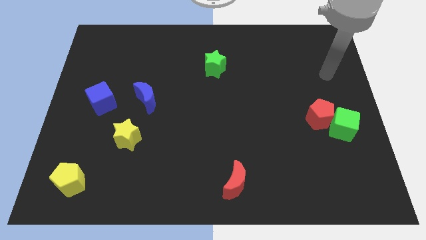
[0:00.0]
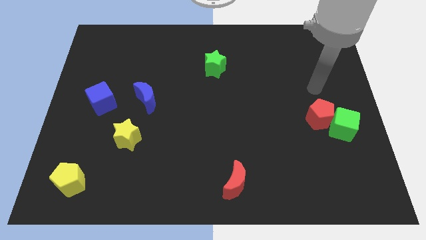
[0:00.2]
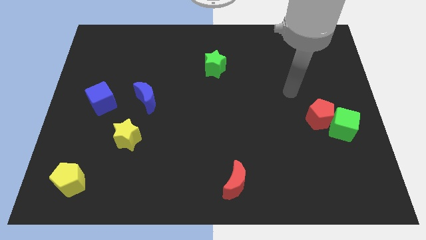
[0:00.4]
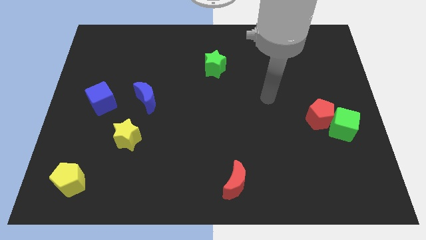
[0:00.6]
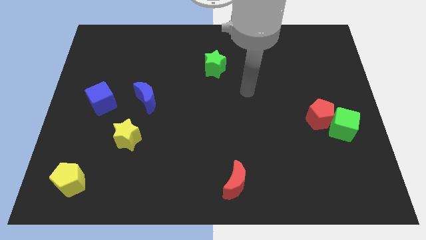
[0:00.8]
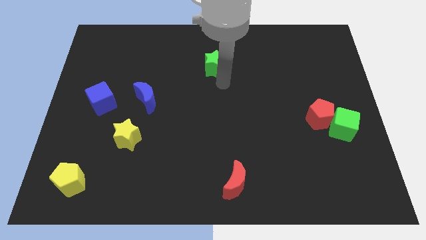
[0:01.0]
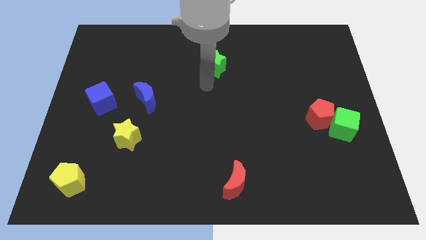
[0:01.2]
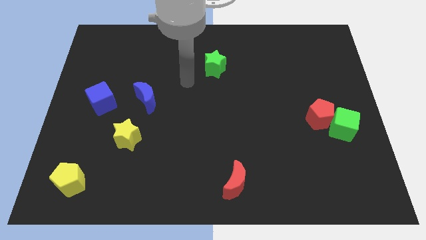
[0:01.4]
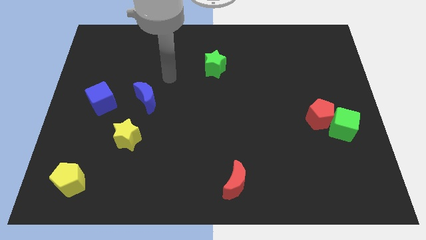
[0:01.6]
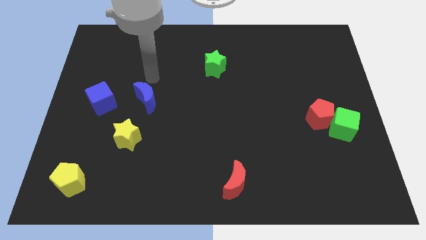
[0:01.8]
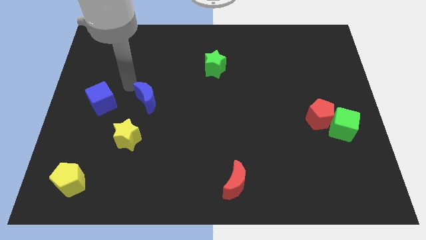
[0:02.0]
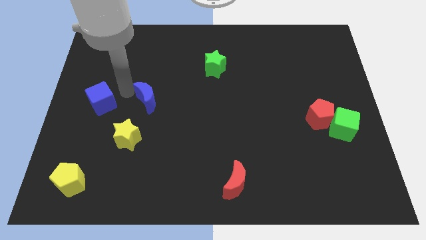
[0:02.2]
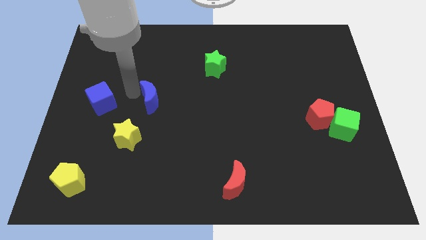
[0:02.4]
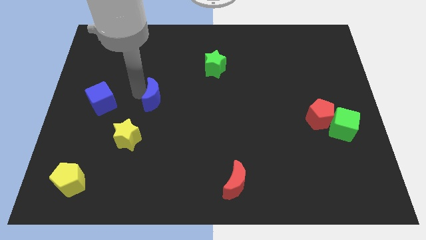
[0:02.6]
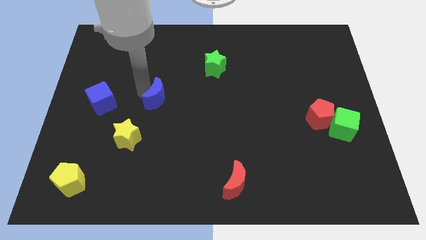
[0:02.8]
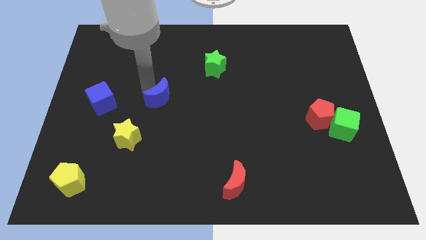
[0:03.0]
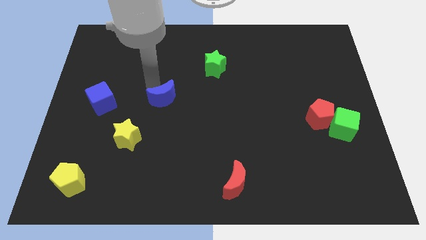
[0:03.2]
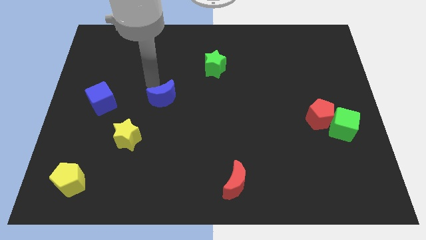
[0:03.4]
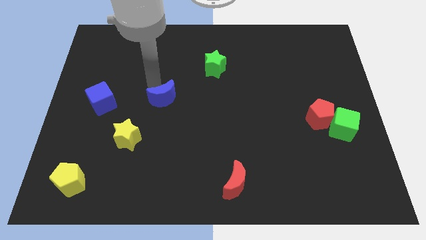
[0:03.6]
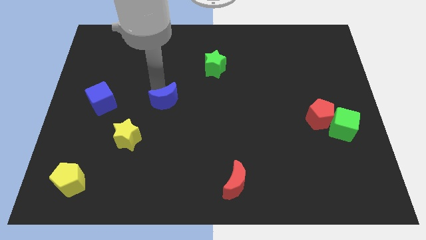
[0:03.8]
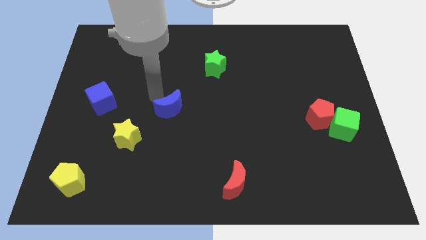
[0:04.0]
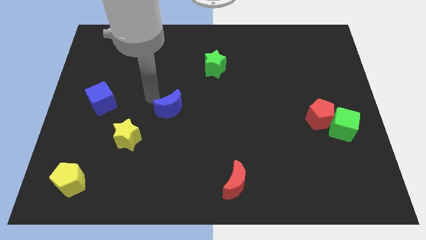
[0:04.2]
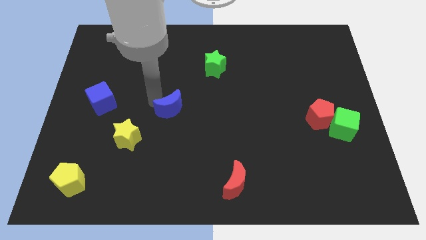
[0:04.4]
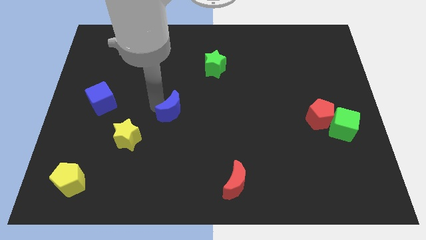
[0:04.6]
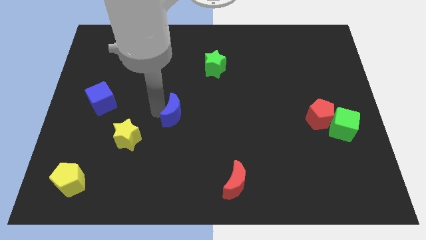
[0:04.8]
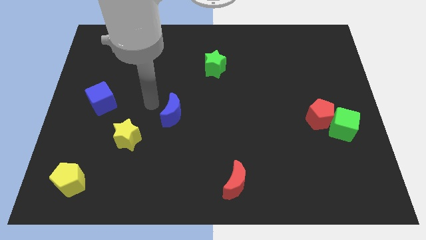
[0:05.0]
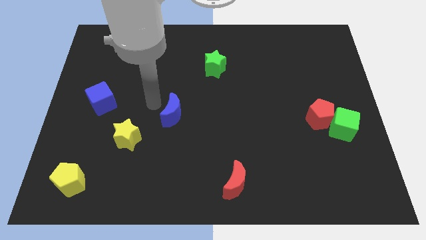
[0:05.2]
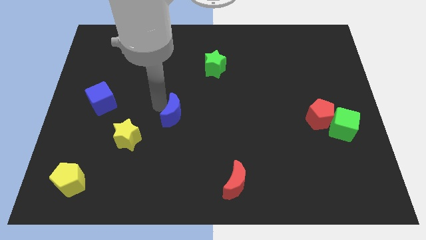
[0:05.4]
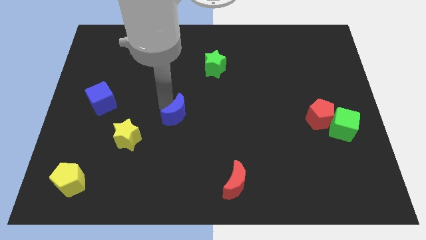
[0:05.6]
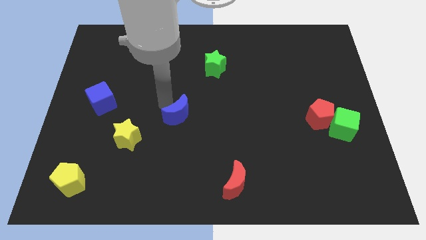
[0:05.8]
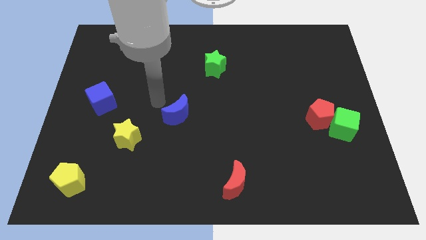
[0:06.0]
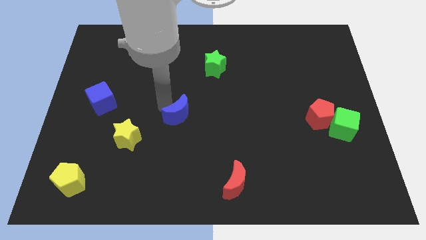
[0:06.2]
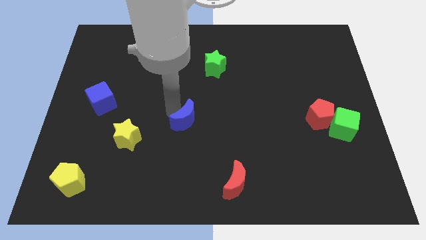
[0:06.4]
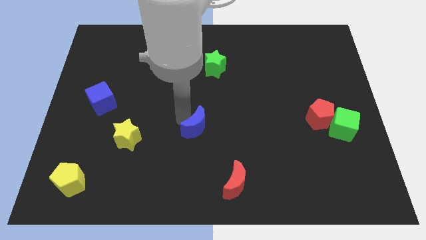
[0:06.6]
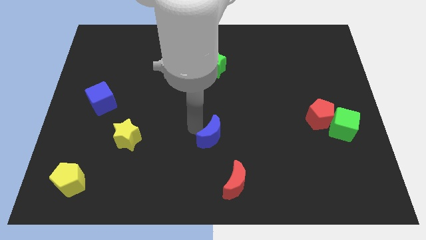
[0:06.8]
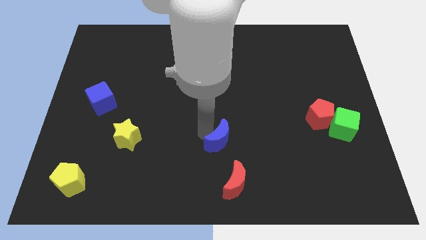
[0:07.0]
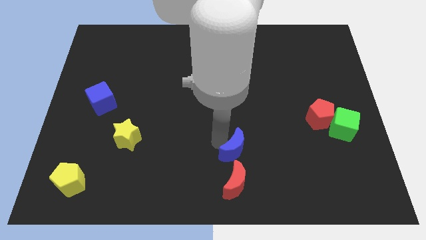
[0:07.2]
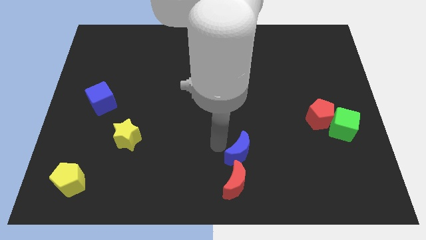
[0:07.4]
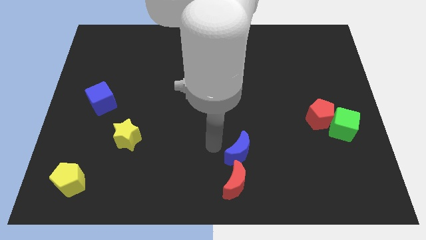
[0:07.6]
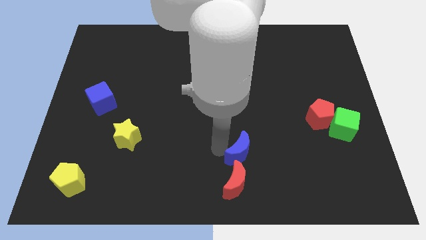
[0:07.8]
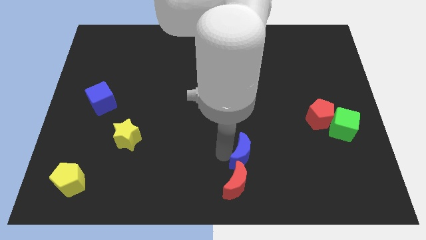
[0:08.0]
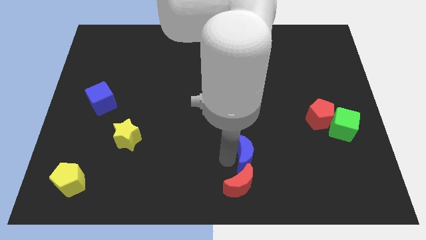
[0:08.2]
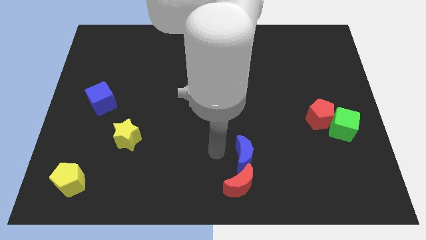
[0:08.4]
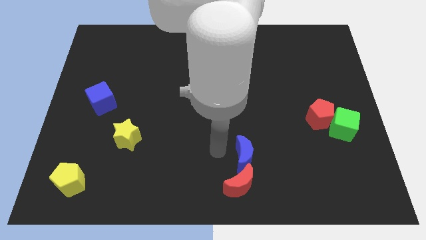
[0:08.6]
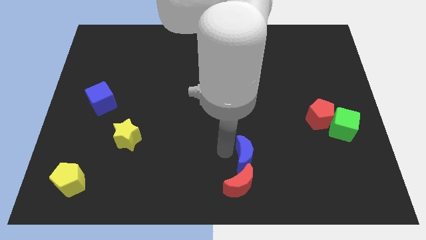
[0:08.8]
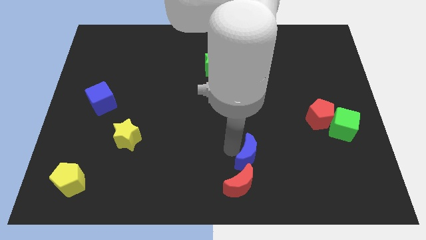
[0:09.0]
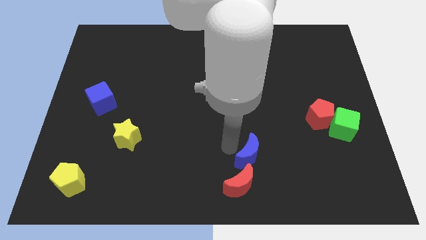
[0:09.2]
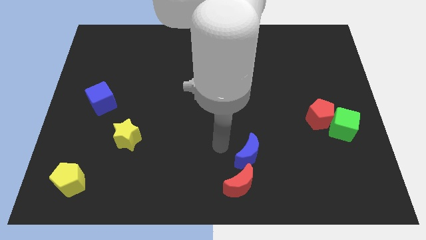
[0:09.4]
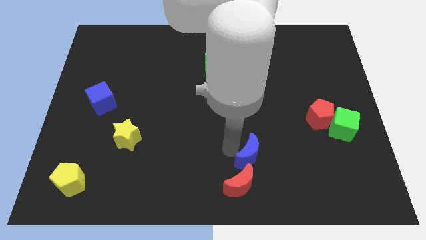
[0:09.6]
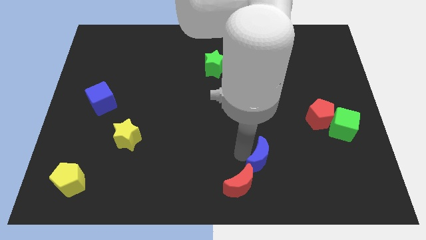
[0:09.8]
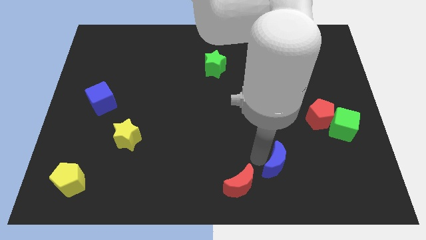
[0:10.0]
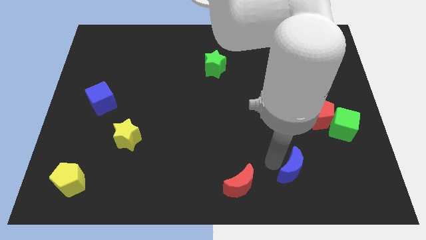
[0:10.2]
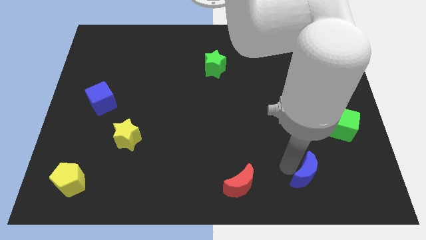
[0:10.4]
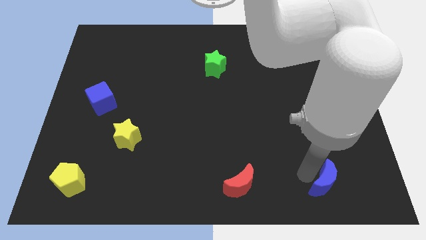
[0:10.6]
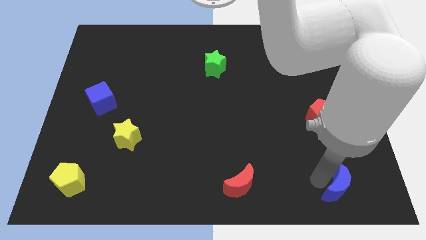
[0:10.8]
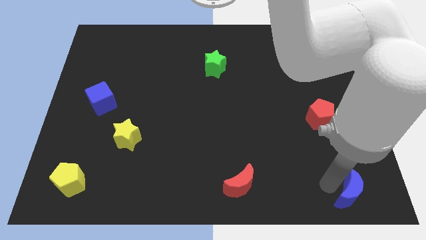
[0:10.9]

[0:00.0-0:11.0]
move the blue moon to the bottom right of the board
